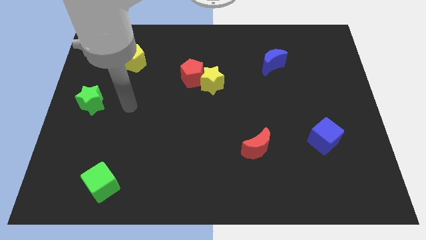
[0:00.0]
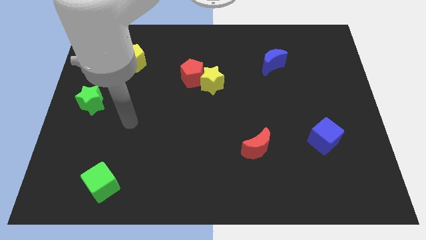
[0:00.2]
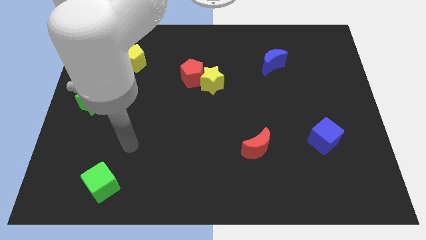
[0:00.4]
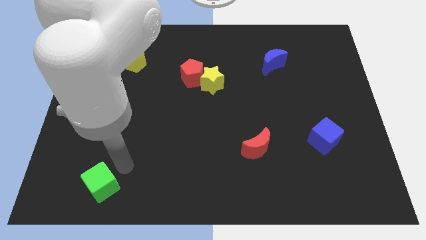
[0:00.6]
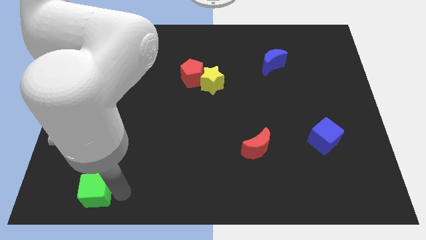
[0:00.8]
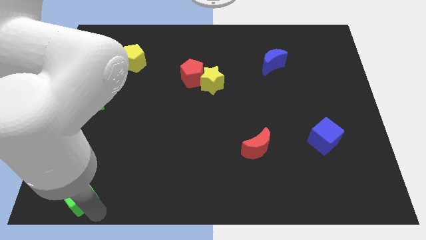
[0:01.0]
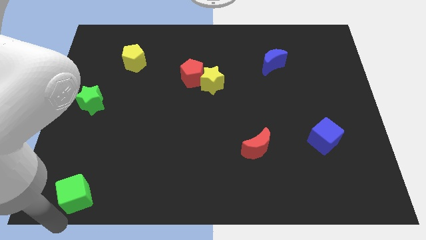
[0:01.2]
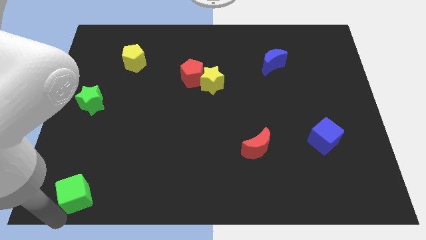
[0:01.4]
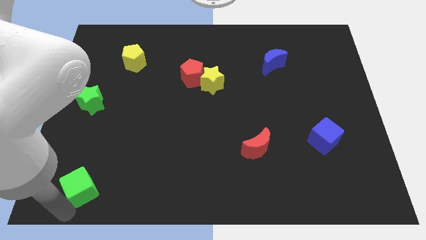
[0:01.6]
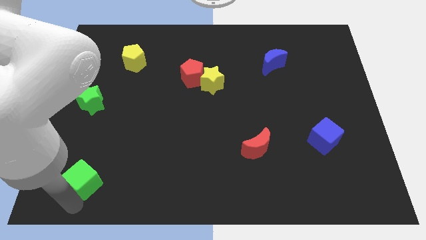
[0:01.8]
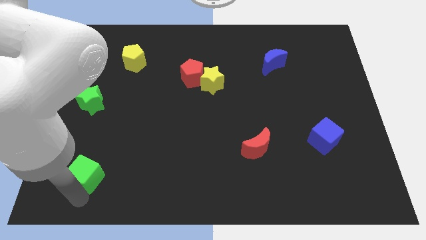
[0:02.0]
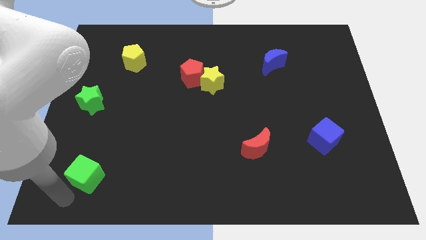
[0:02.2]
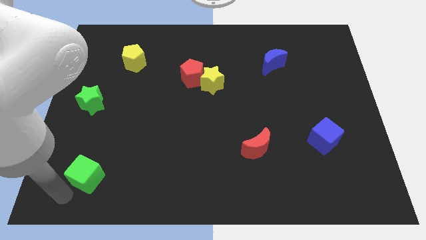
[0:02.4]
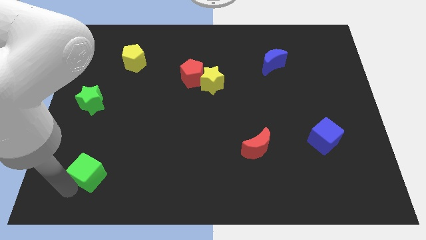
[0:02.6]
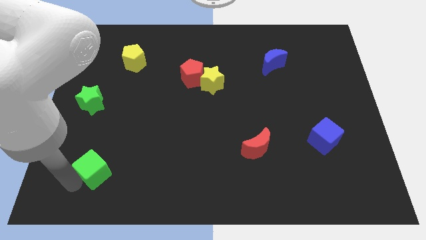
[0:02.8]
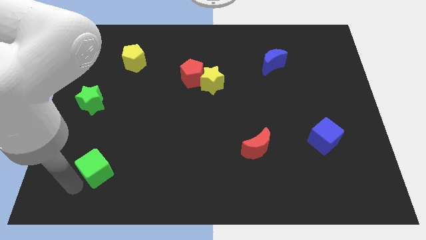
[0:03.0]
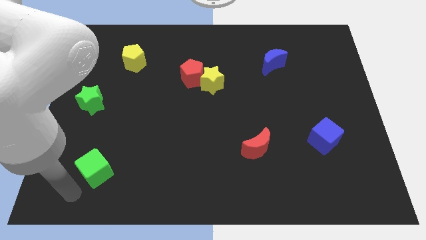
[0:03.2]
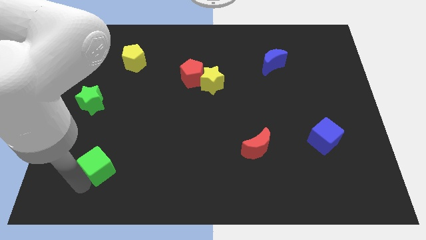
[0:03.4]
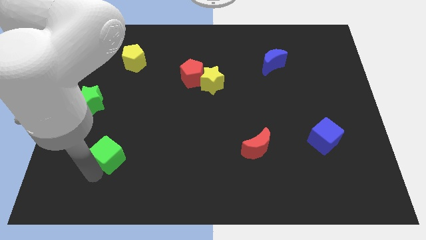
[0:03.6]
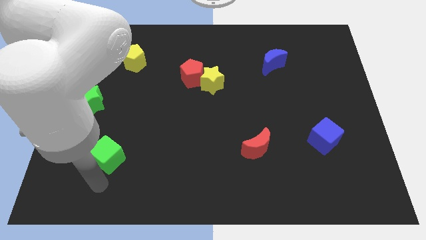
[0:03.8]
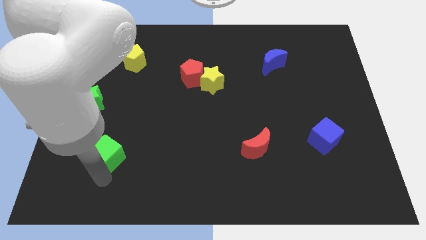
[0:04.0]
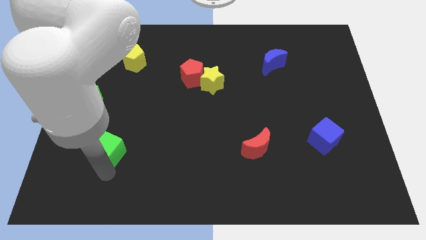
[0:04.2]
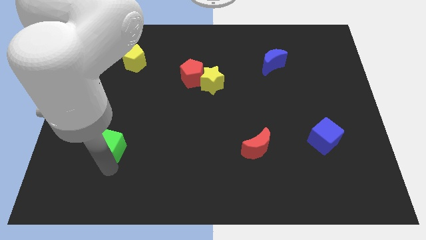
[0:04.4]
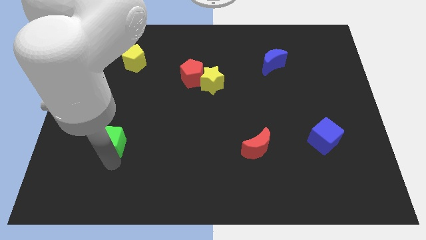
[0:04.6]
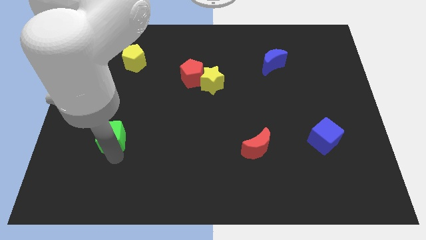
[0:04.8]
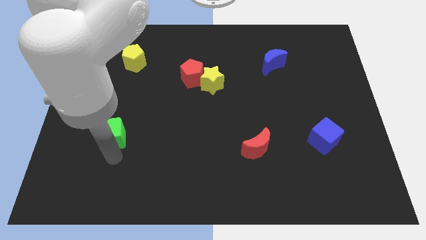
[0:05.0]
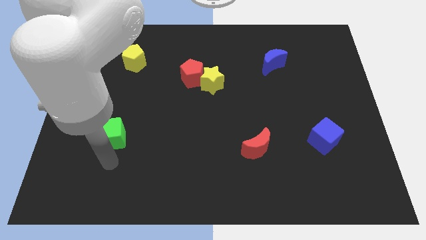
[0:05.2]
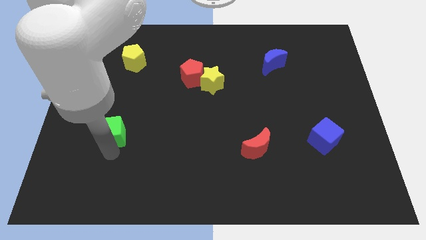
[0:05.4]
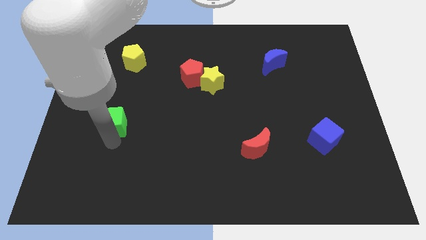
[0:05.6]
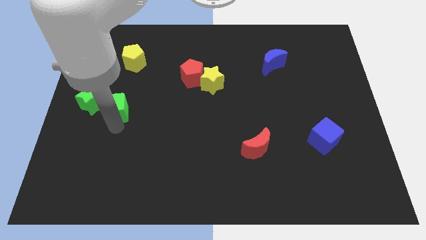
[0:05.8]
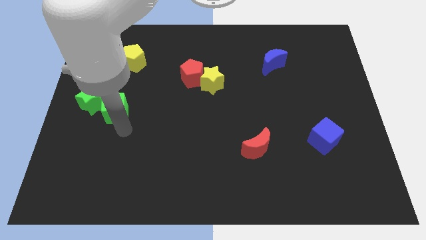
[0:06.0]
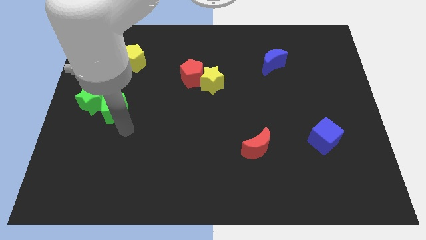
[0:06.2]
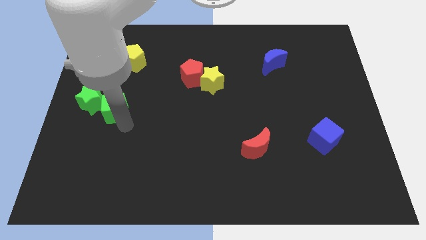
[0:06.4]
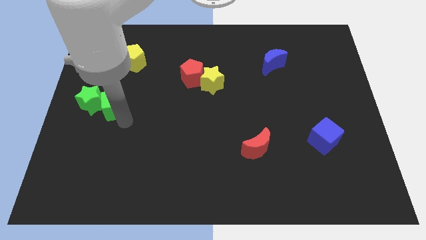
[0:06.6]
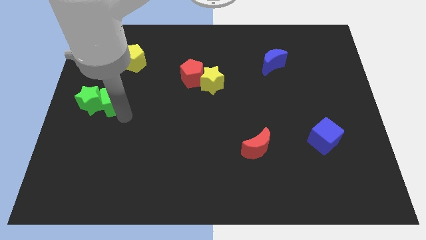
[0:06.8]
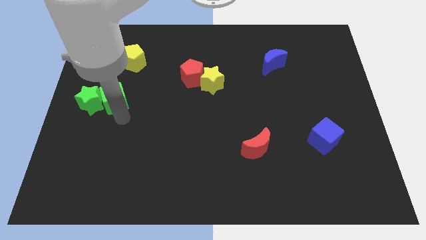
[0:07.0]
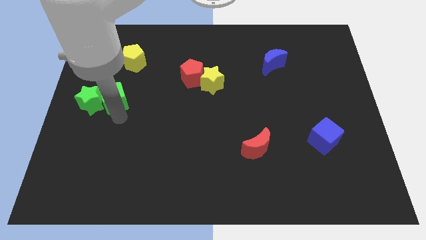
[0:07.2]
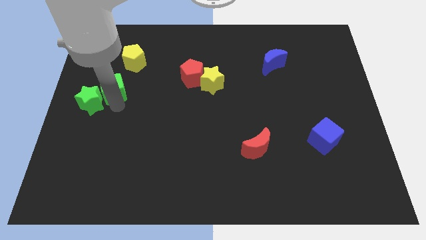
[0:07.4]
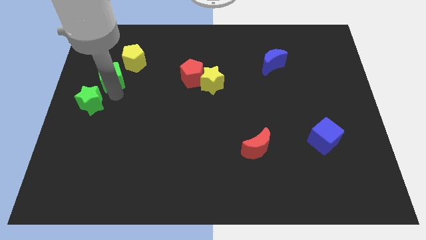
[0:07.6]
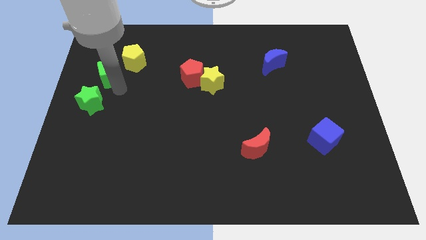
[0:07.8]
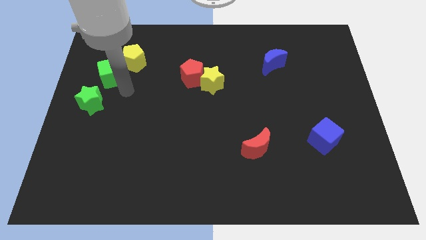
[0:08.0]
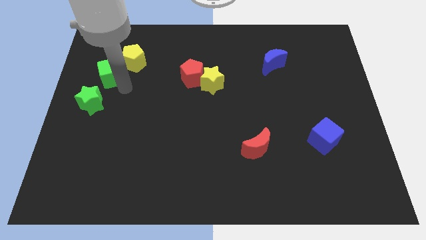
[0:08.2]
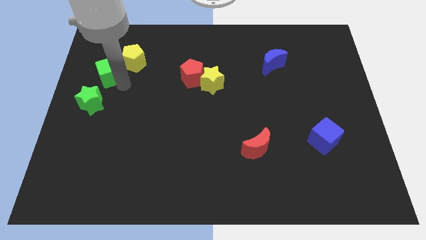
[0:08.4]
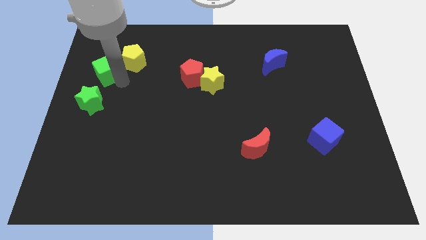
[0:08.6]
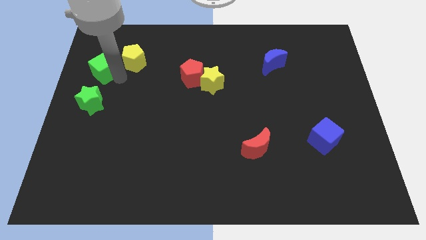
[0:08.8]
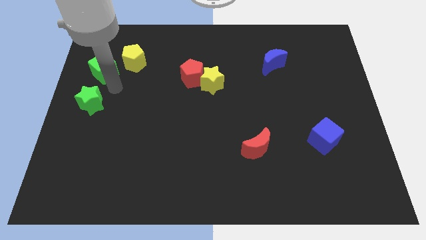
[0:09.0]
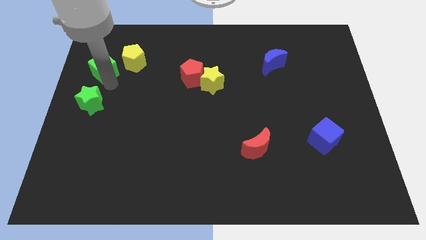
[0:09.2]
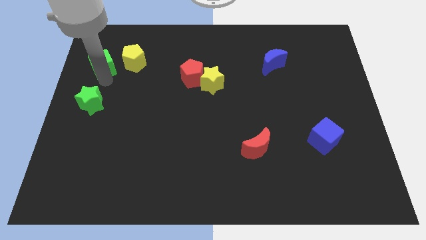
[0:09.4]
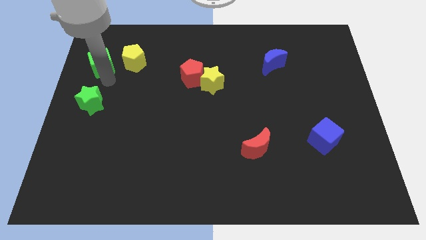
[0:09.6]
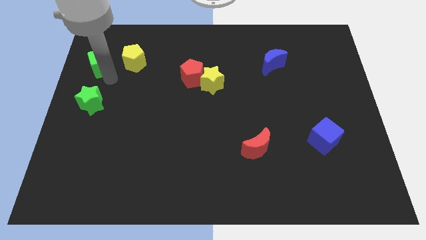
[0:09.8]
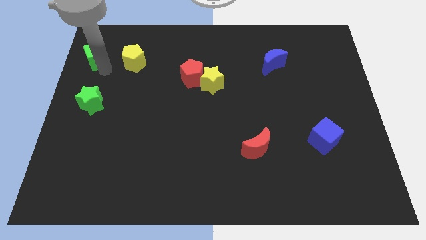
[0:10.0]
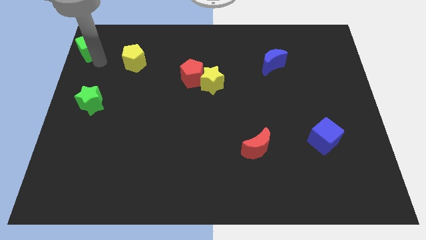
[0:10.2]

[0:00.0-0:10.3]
move the green cube to the top left corner

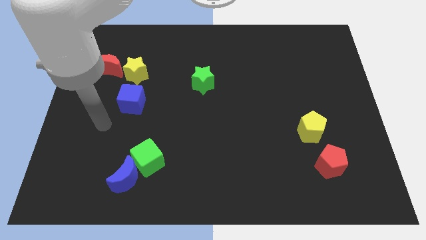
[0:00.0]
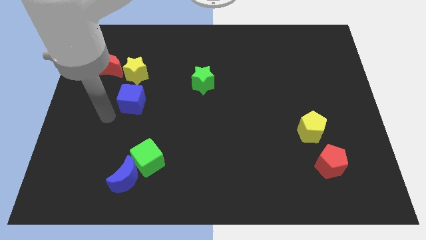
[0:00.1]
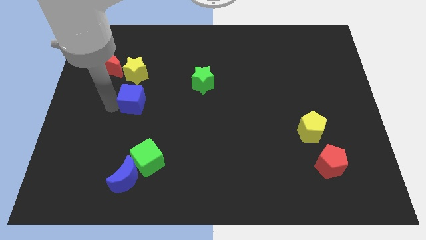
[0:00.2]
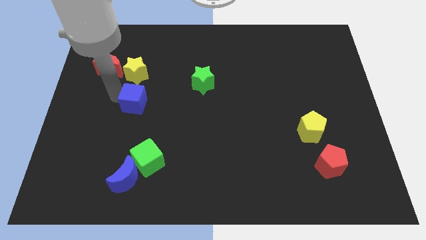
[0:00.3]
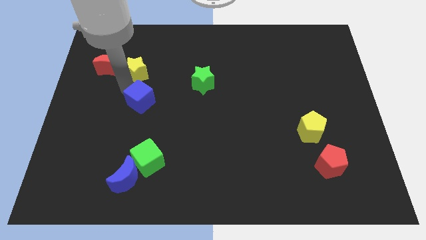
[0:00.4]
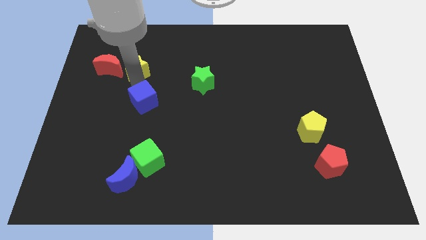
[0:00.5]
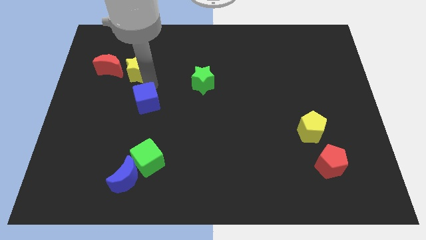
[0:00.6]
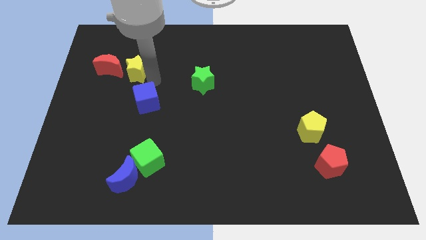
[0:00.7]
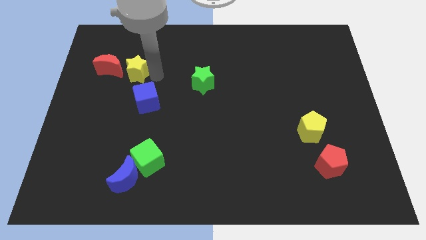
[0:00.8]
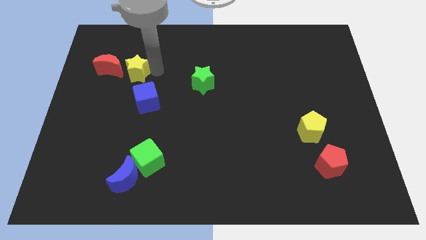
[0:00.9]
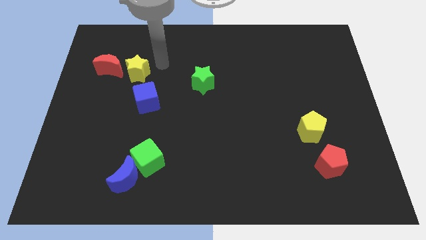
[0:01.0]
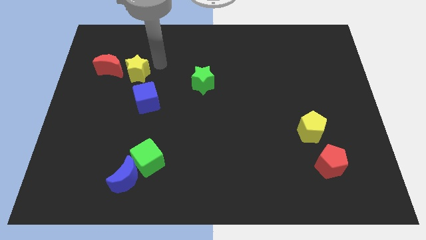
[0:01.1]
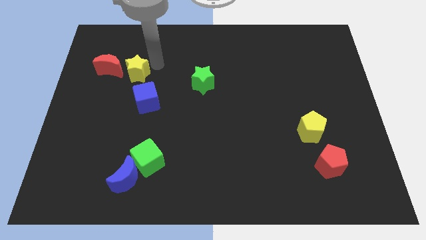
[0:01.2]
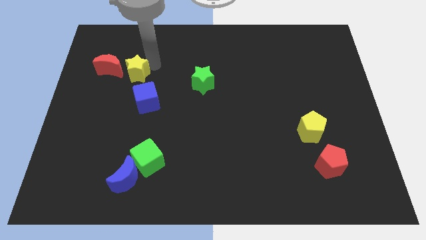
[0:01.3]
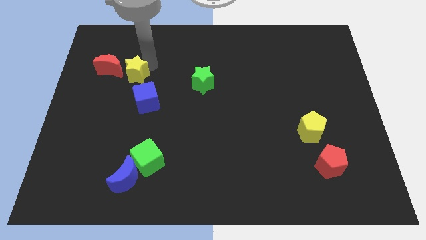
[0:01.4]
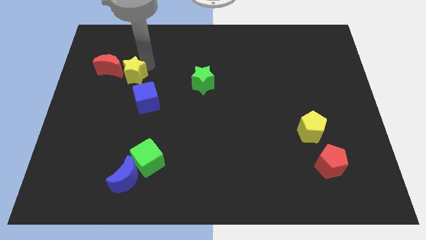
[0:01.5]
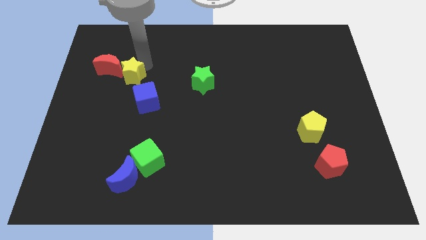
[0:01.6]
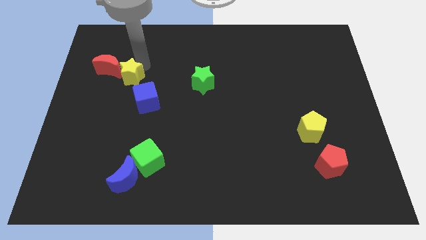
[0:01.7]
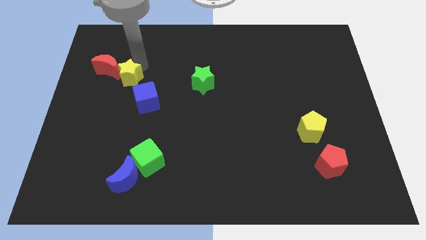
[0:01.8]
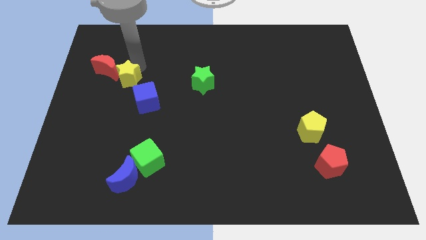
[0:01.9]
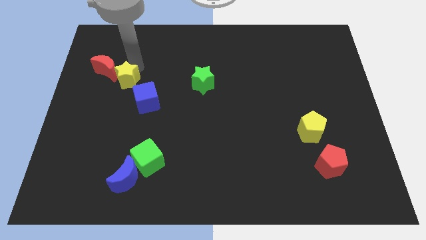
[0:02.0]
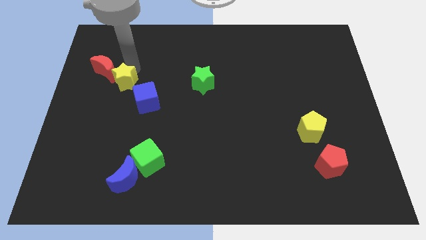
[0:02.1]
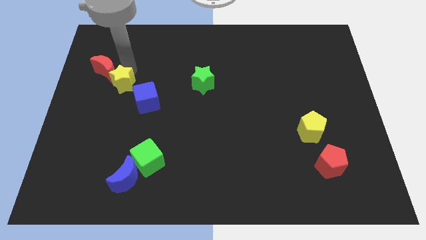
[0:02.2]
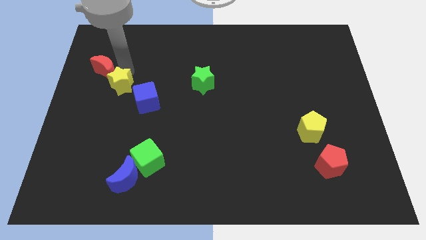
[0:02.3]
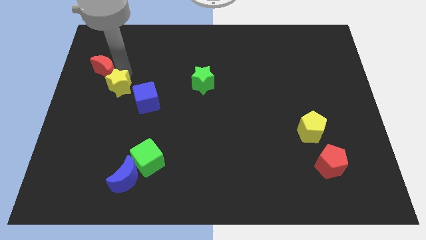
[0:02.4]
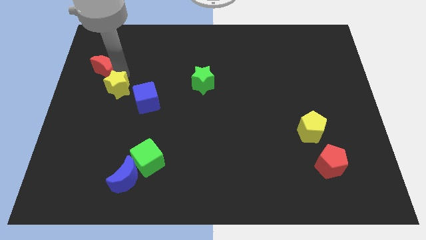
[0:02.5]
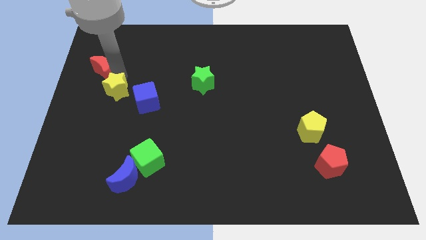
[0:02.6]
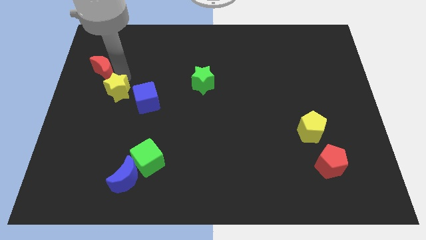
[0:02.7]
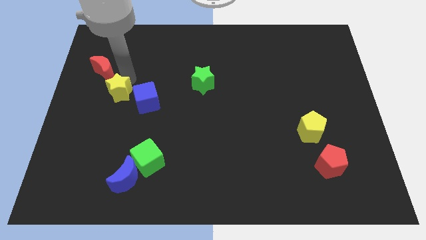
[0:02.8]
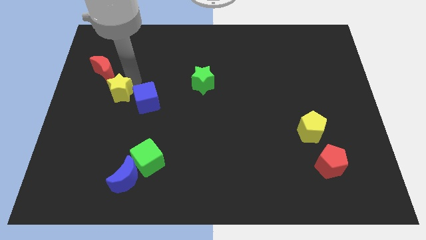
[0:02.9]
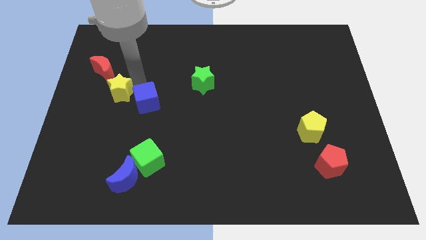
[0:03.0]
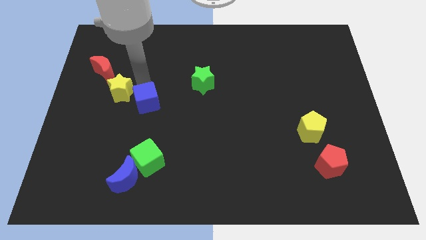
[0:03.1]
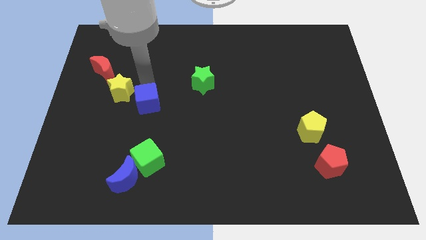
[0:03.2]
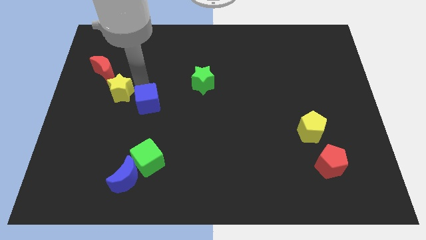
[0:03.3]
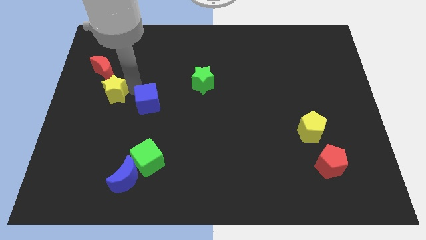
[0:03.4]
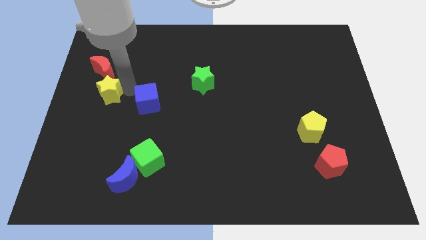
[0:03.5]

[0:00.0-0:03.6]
put the yellow star to the left side
